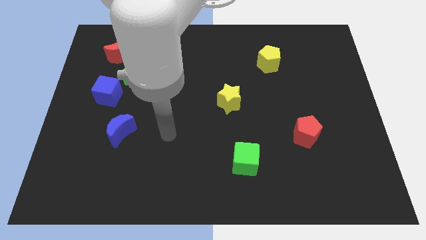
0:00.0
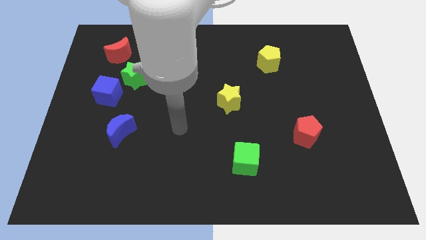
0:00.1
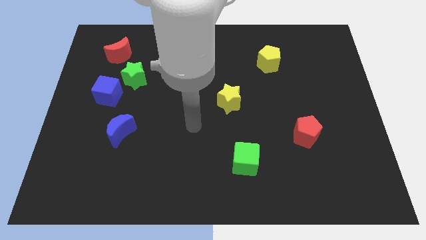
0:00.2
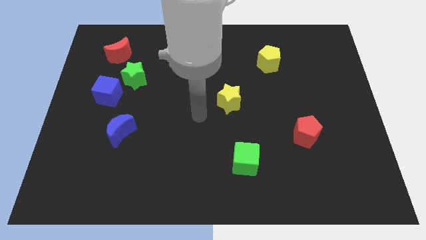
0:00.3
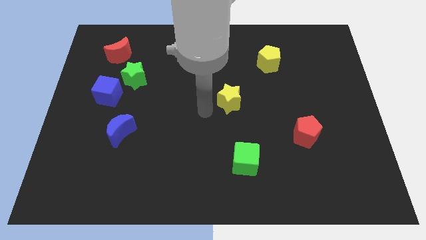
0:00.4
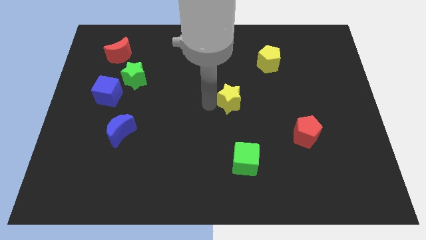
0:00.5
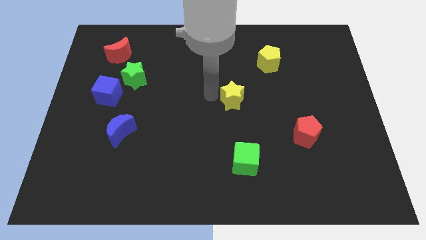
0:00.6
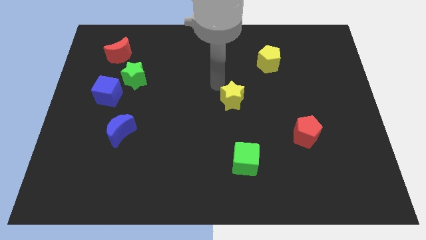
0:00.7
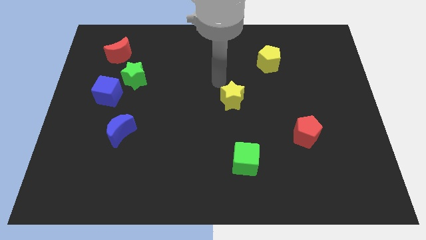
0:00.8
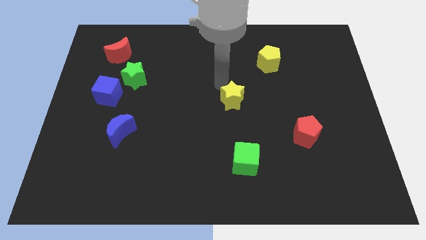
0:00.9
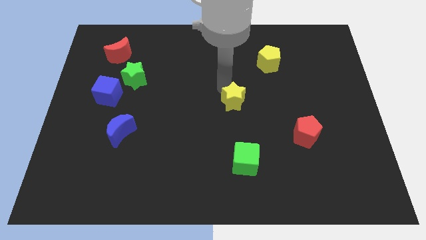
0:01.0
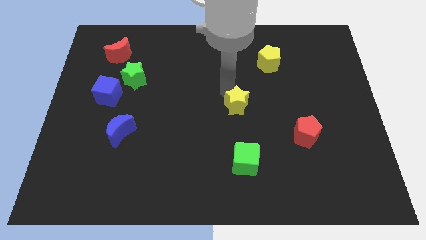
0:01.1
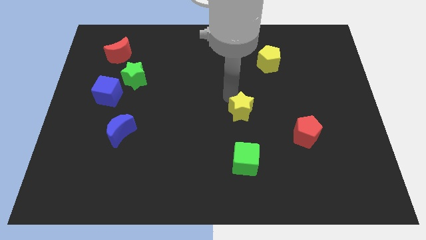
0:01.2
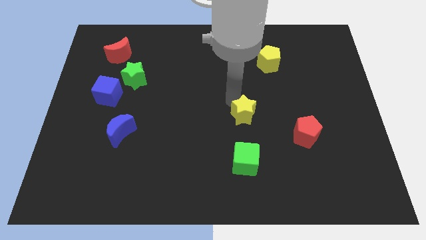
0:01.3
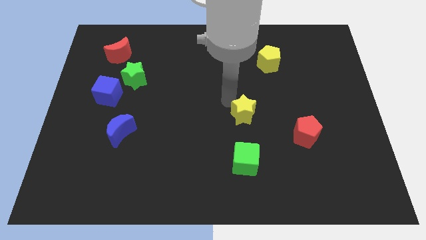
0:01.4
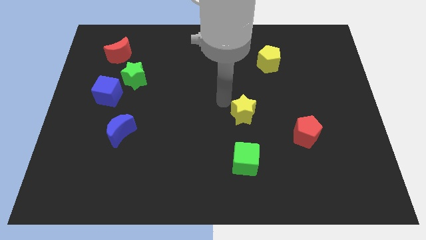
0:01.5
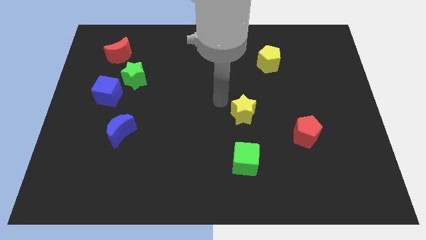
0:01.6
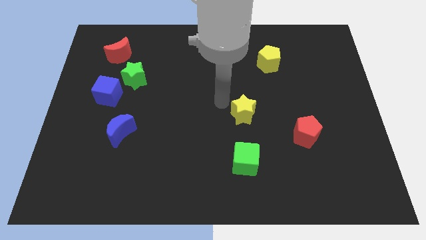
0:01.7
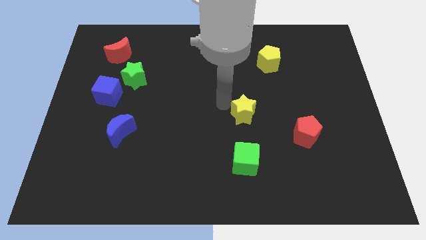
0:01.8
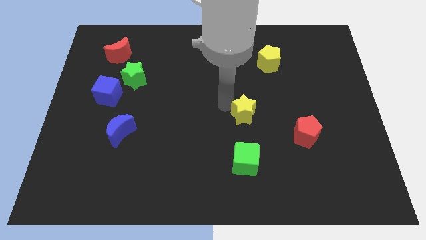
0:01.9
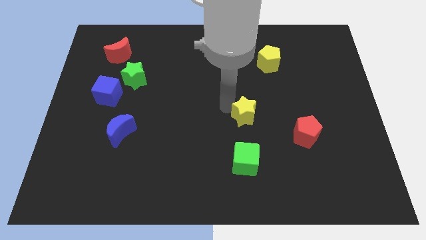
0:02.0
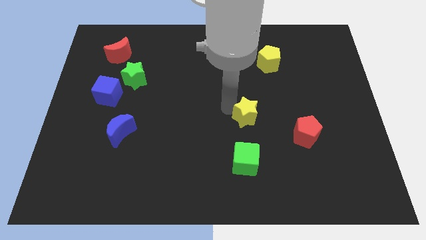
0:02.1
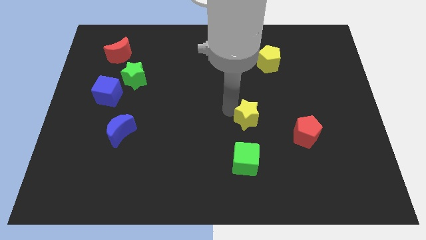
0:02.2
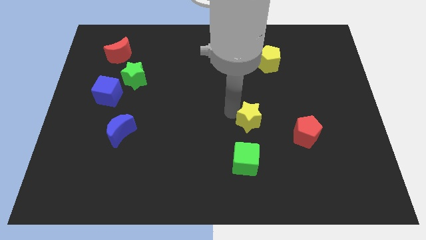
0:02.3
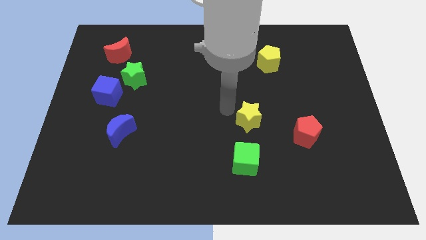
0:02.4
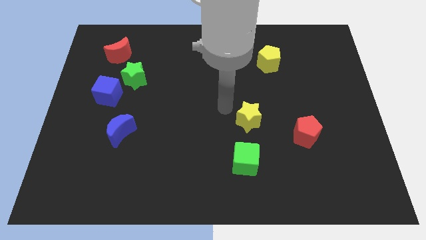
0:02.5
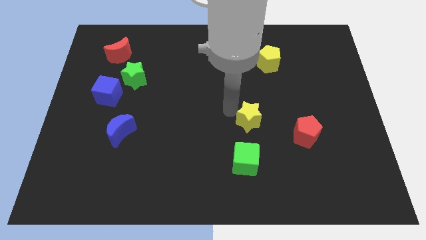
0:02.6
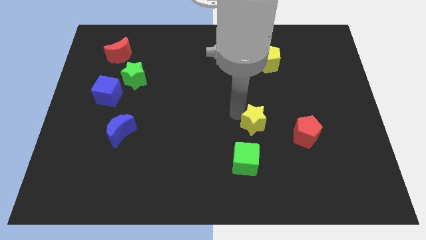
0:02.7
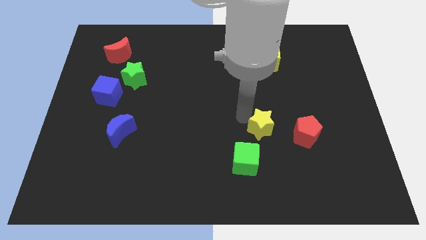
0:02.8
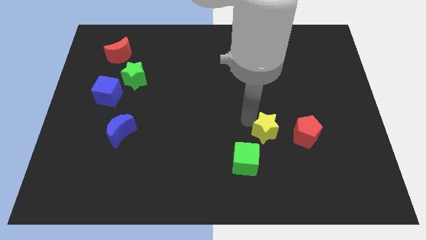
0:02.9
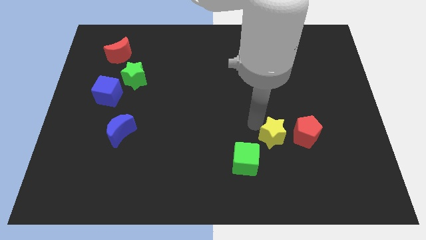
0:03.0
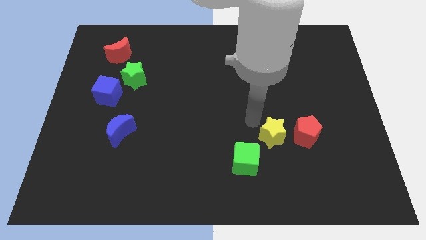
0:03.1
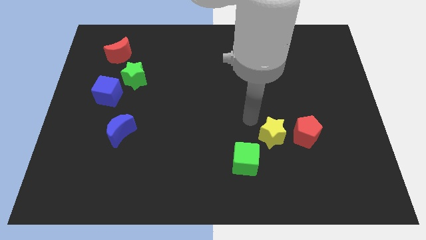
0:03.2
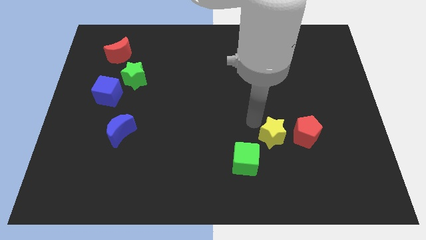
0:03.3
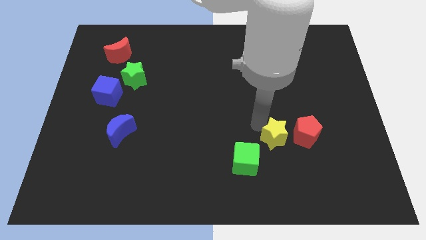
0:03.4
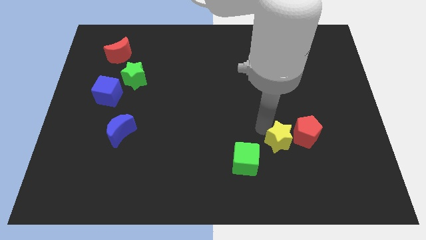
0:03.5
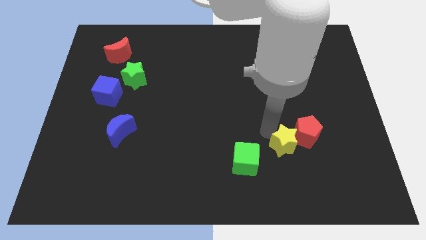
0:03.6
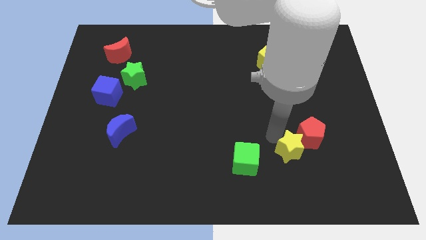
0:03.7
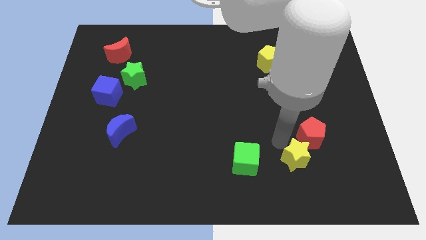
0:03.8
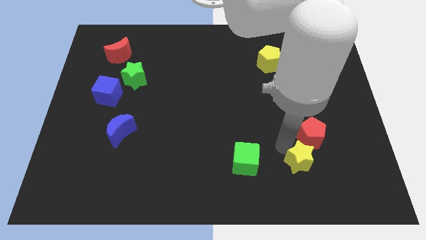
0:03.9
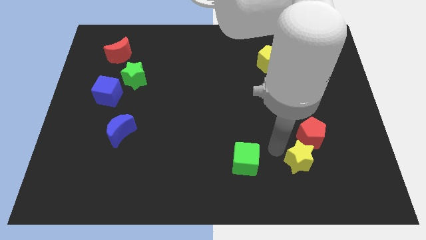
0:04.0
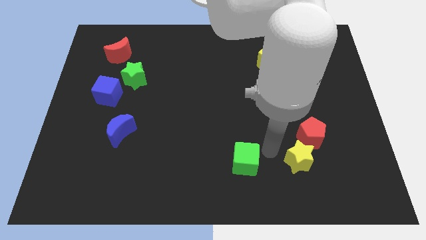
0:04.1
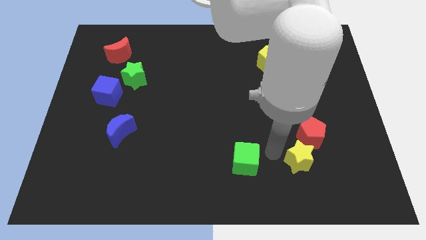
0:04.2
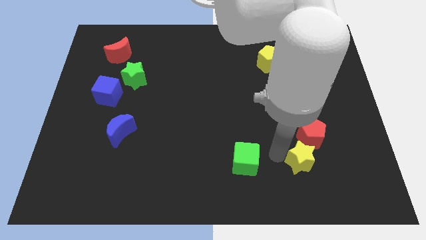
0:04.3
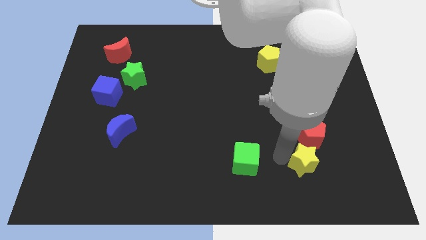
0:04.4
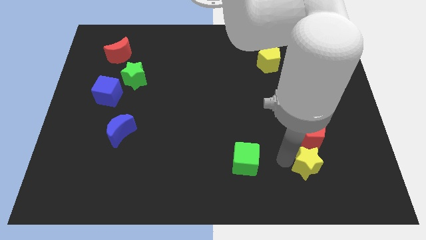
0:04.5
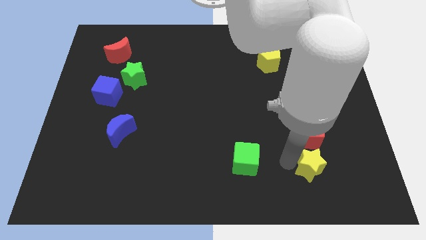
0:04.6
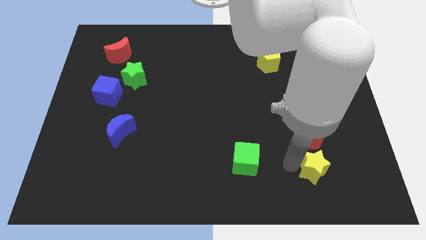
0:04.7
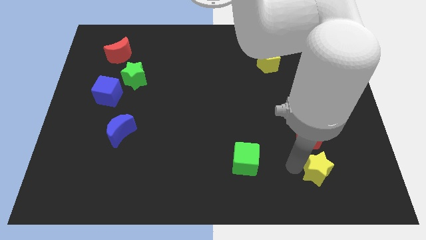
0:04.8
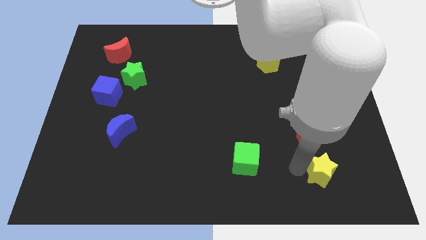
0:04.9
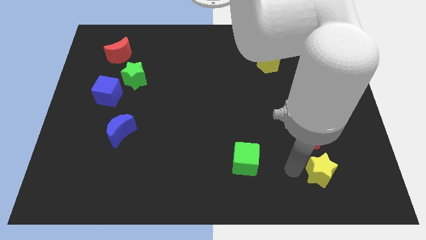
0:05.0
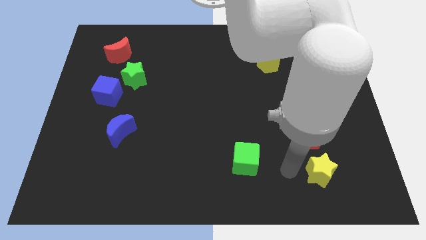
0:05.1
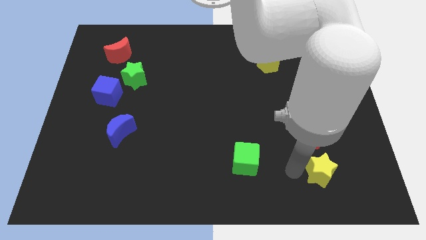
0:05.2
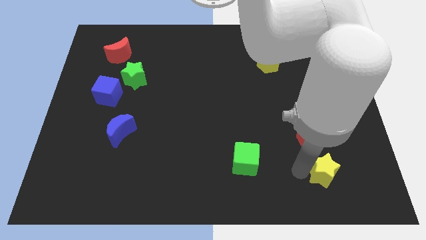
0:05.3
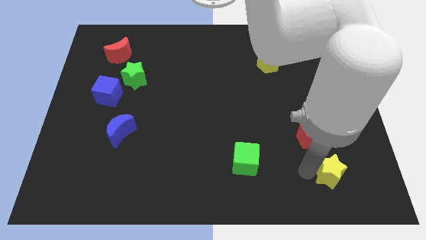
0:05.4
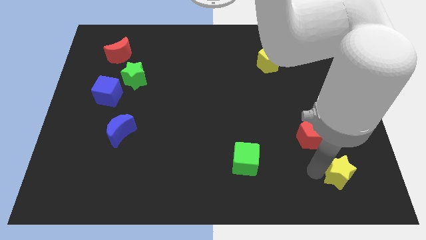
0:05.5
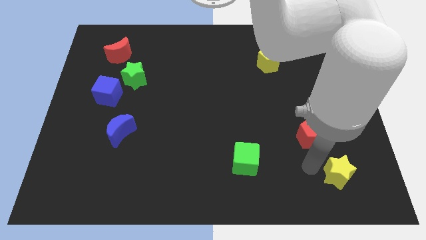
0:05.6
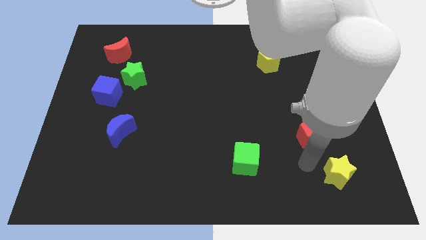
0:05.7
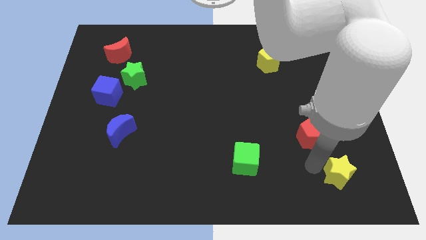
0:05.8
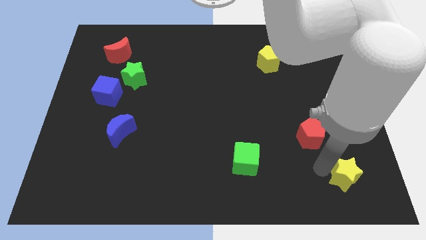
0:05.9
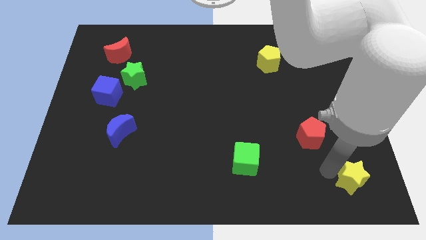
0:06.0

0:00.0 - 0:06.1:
slide the yellow star to the bottom right of the board

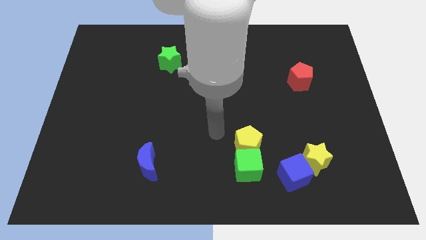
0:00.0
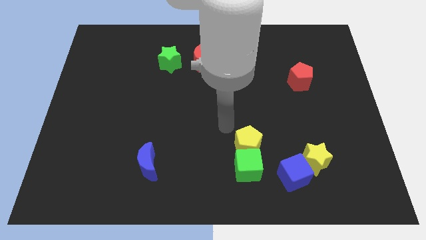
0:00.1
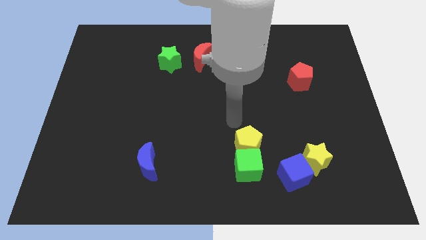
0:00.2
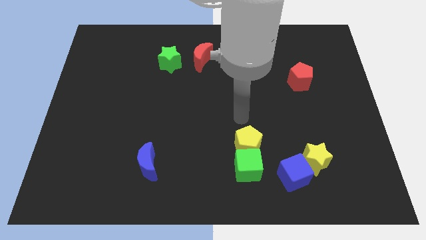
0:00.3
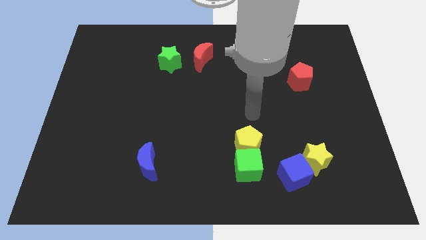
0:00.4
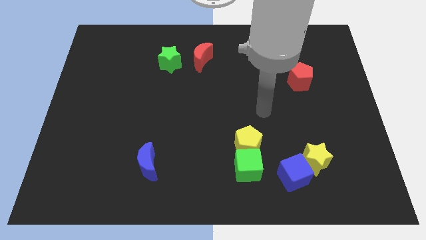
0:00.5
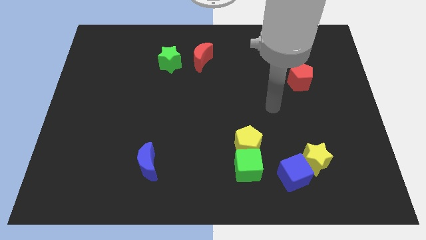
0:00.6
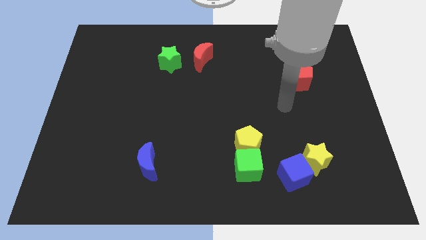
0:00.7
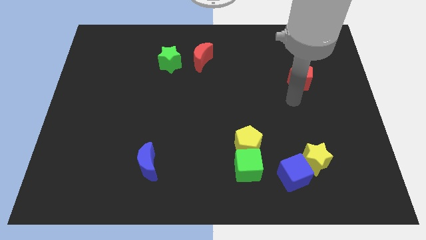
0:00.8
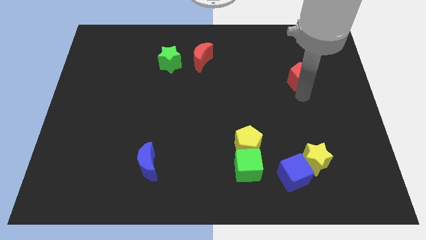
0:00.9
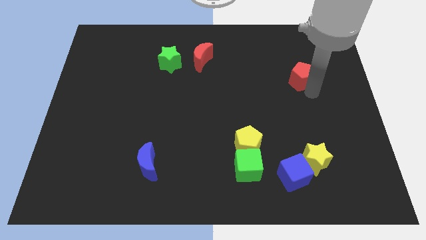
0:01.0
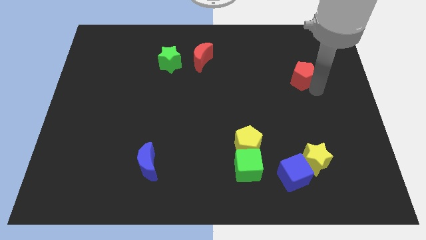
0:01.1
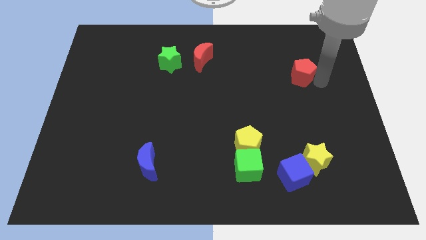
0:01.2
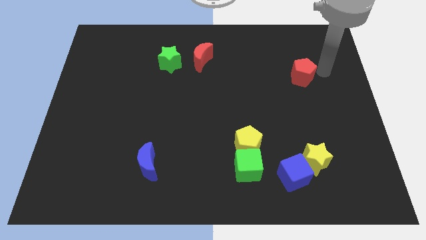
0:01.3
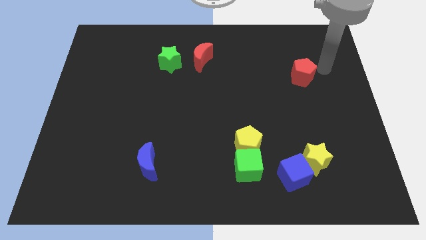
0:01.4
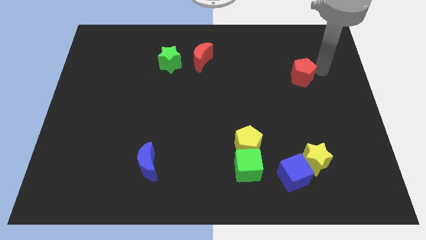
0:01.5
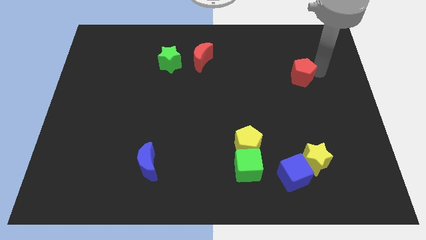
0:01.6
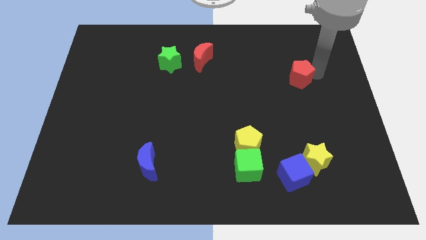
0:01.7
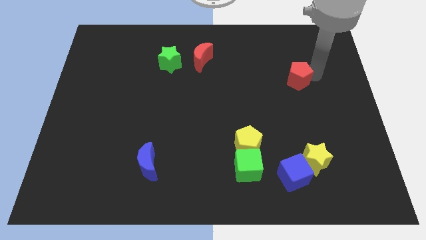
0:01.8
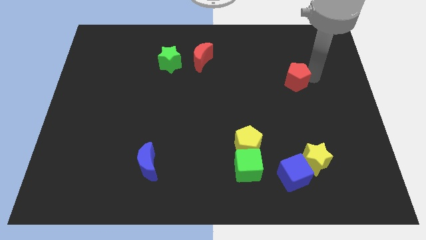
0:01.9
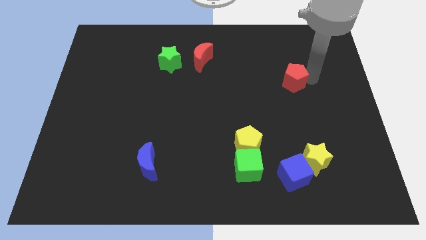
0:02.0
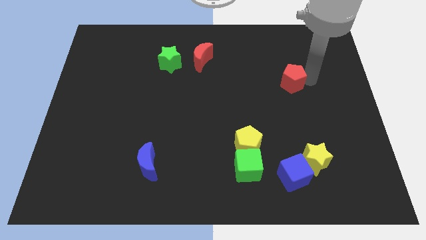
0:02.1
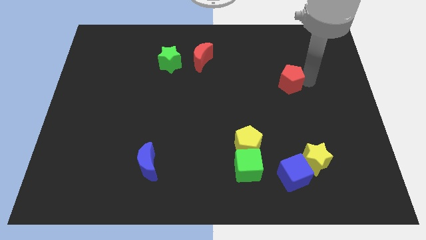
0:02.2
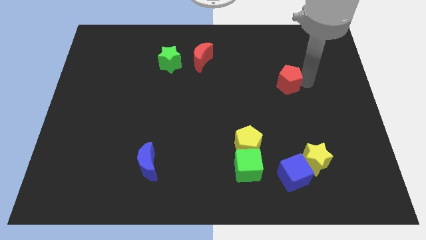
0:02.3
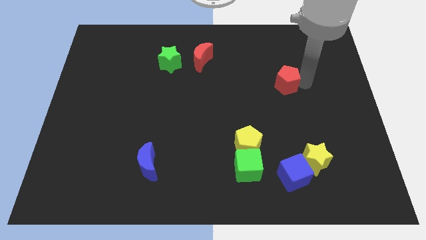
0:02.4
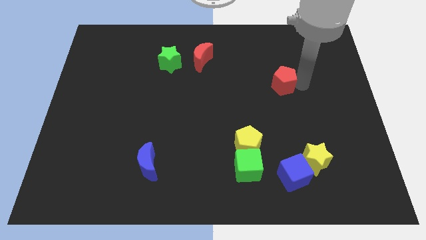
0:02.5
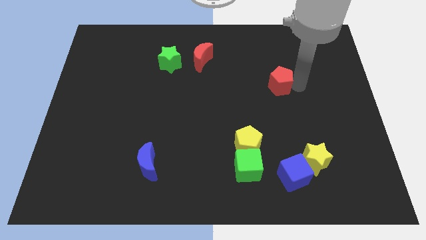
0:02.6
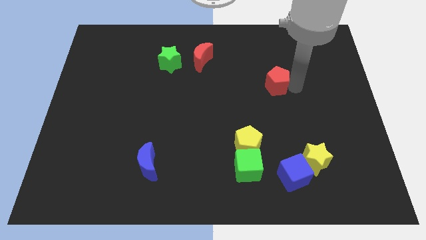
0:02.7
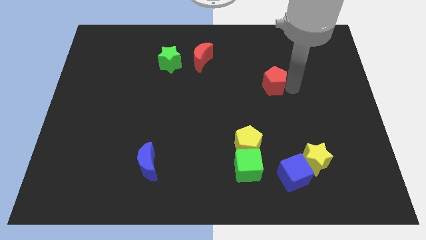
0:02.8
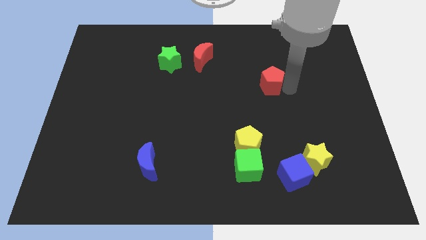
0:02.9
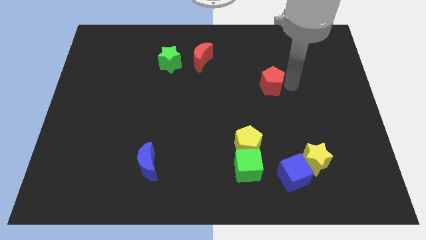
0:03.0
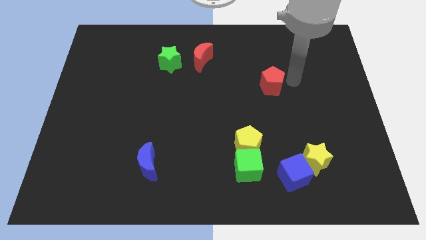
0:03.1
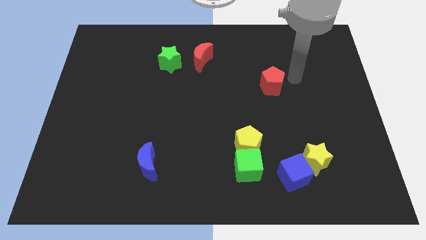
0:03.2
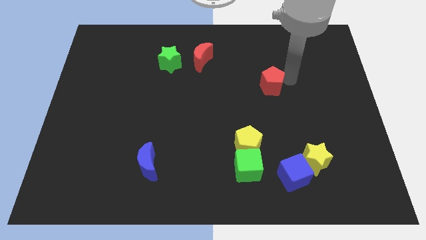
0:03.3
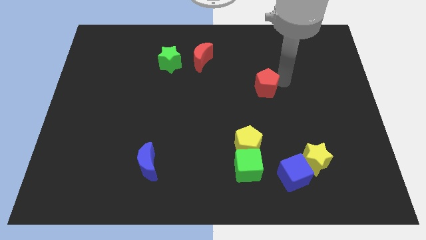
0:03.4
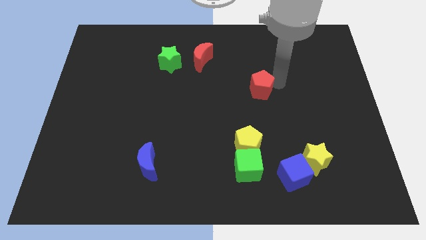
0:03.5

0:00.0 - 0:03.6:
push the red pentagon to the middle
